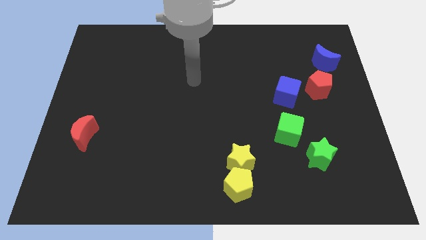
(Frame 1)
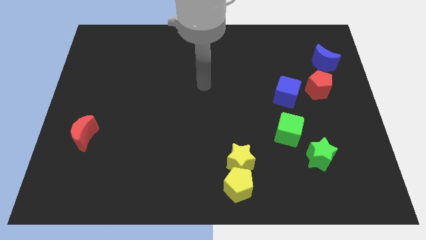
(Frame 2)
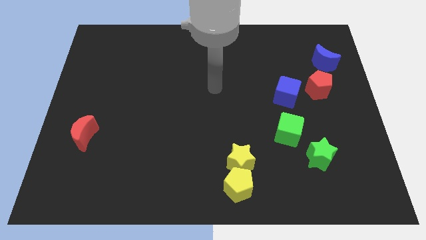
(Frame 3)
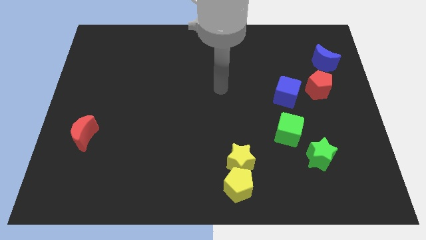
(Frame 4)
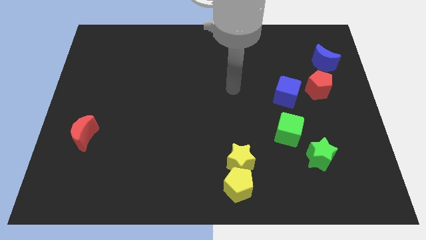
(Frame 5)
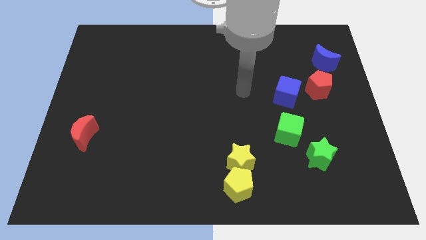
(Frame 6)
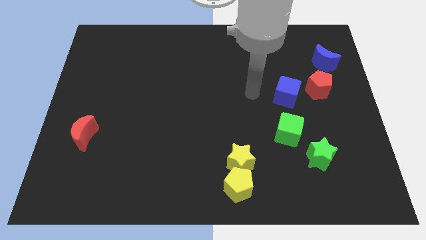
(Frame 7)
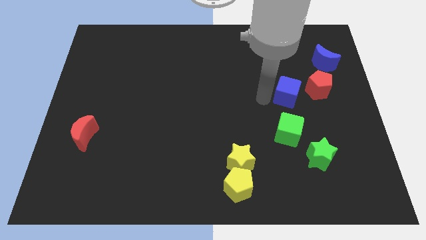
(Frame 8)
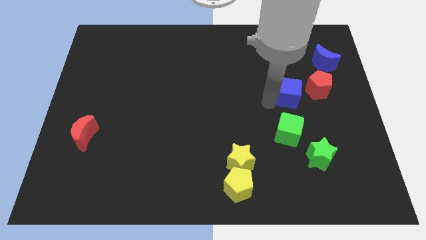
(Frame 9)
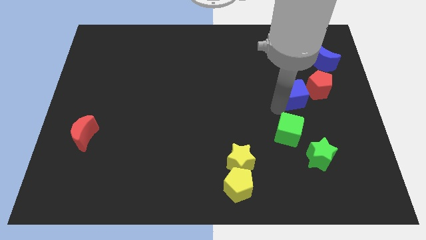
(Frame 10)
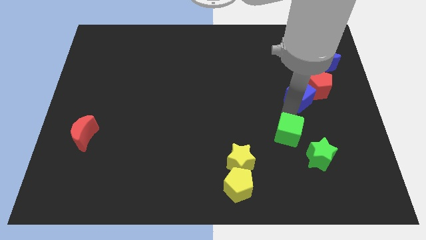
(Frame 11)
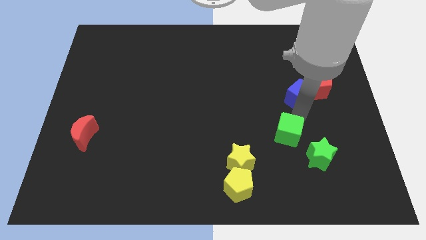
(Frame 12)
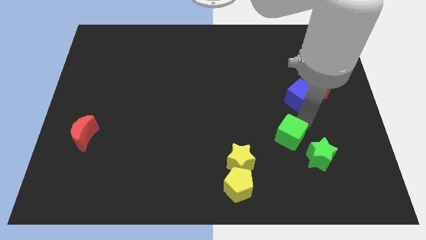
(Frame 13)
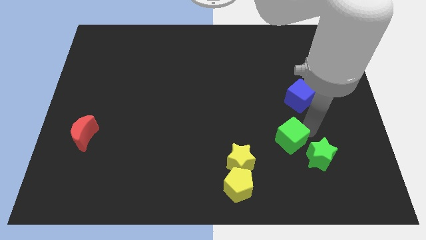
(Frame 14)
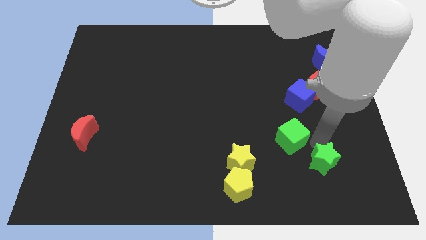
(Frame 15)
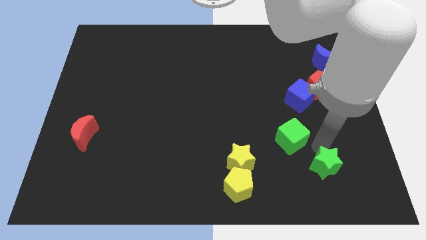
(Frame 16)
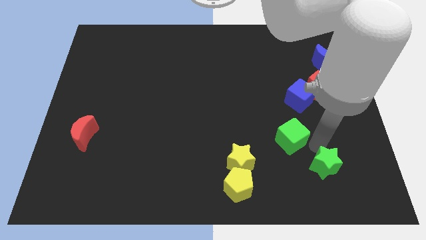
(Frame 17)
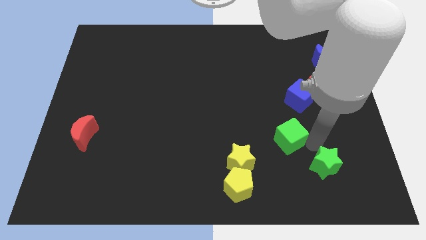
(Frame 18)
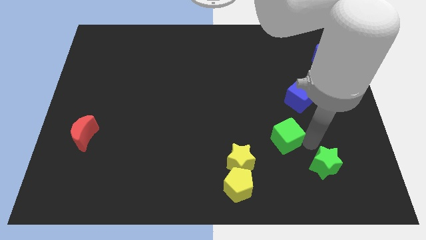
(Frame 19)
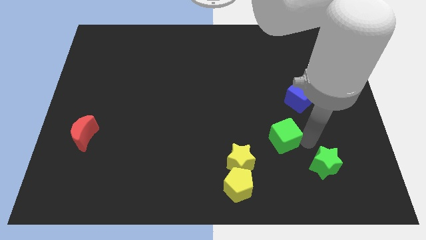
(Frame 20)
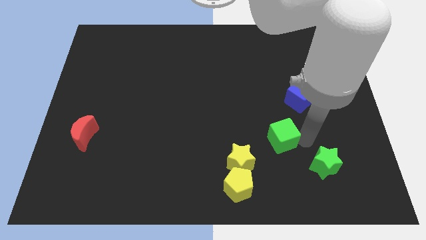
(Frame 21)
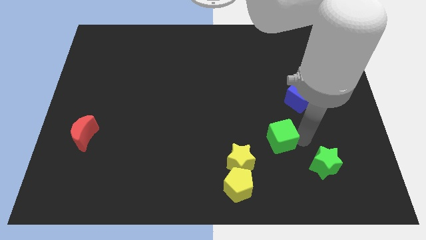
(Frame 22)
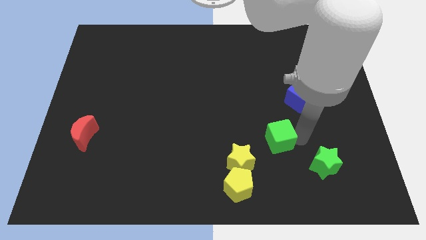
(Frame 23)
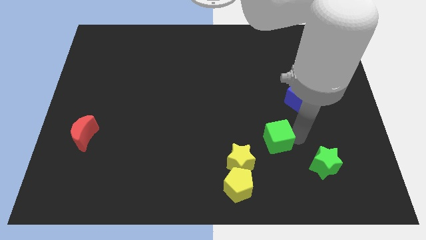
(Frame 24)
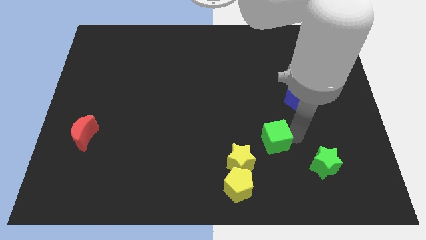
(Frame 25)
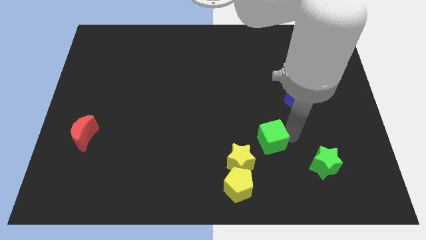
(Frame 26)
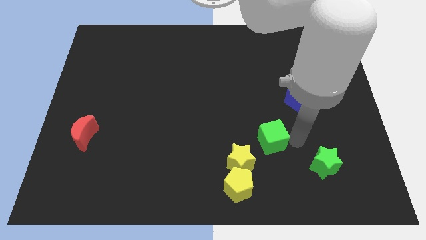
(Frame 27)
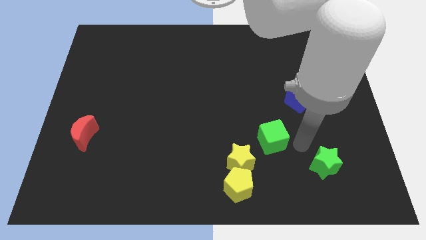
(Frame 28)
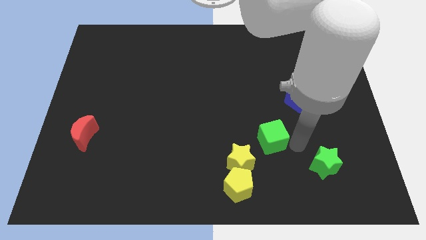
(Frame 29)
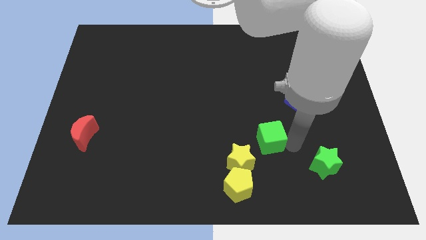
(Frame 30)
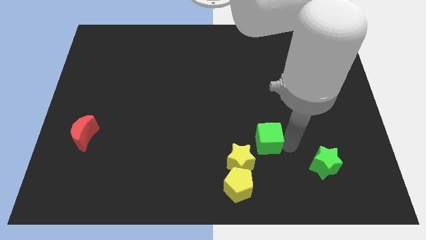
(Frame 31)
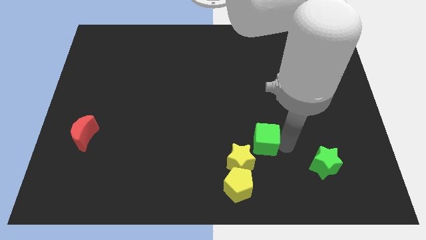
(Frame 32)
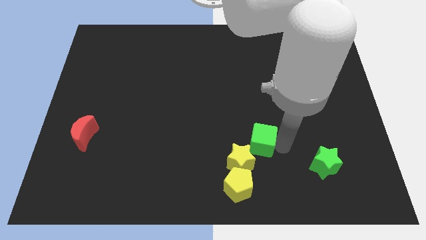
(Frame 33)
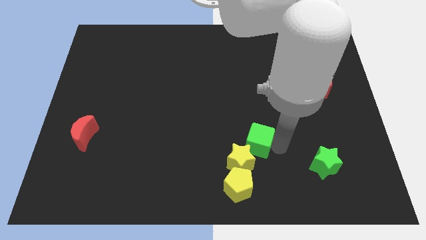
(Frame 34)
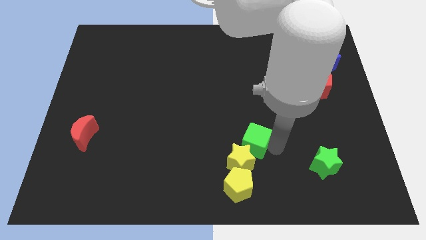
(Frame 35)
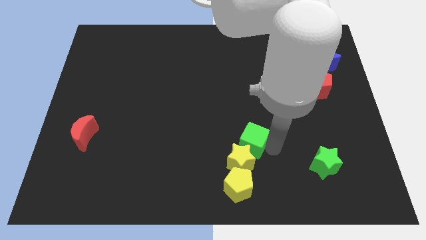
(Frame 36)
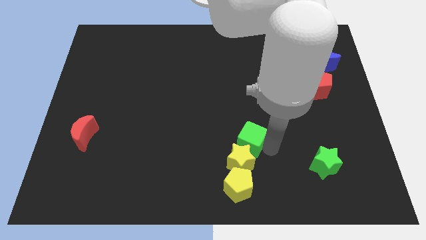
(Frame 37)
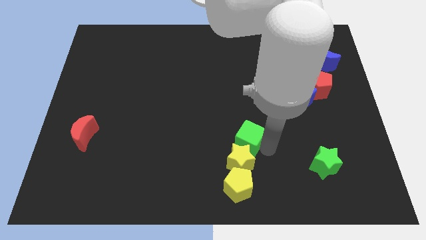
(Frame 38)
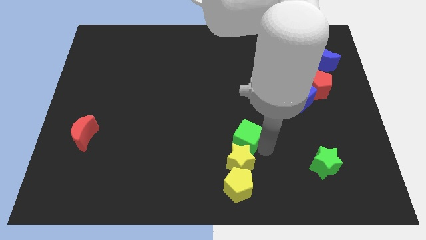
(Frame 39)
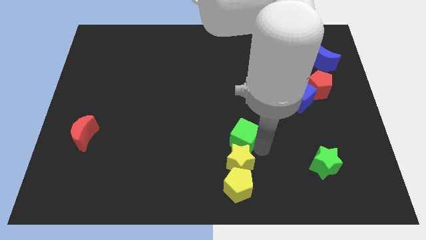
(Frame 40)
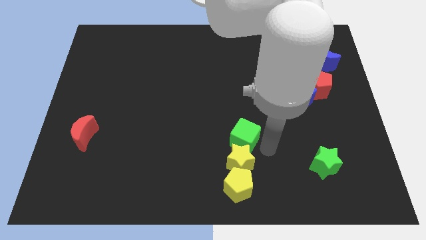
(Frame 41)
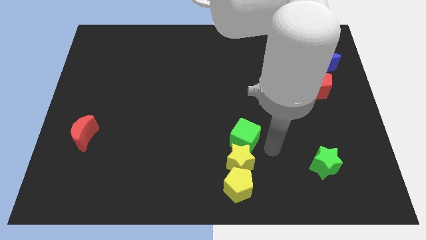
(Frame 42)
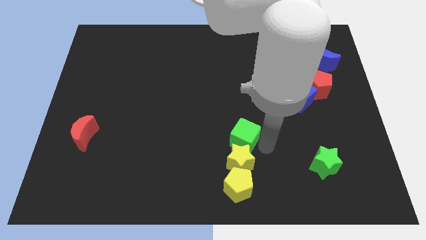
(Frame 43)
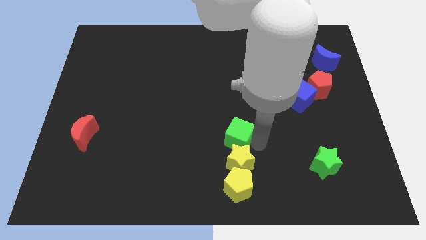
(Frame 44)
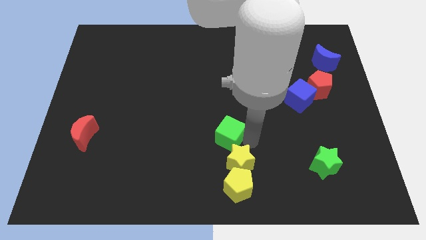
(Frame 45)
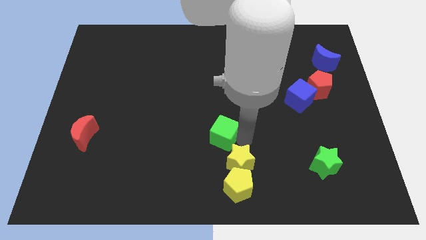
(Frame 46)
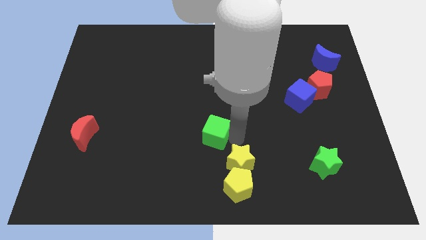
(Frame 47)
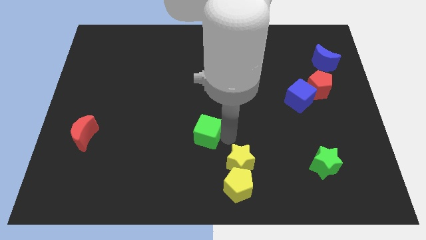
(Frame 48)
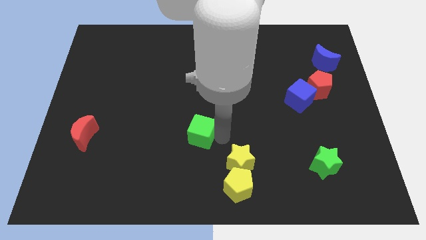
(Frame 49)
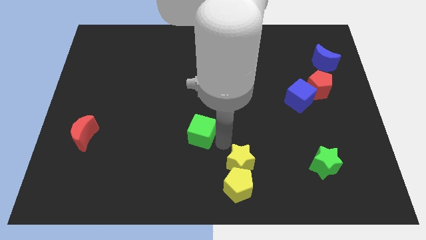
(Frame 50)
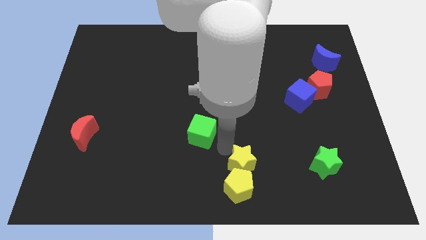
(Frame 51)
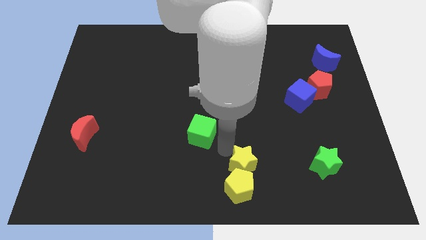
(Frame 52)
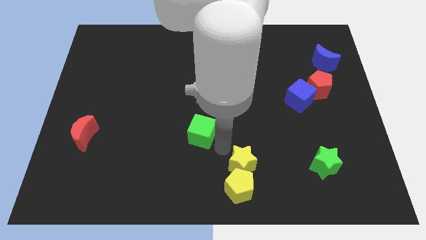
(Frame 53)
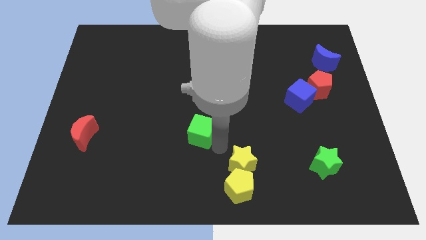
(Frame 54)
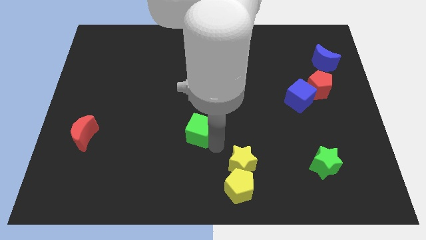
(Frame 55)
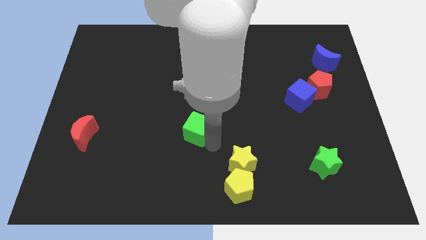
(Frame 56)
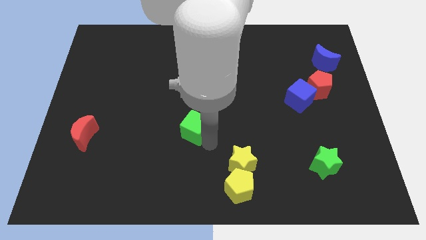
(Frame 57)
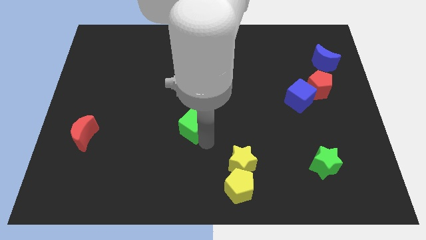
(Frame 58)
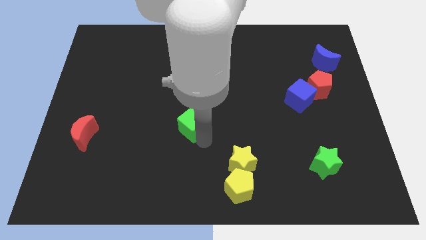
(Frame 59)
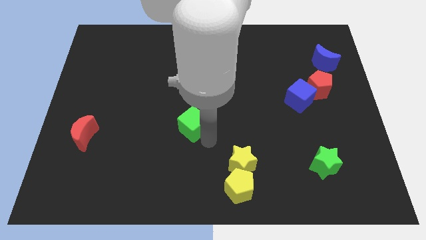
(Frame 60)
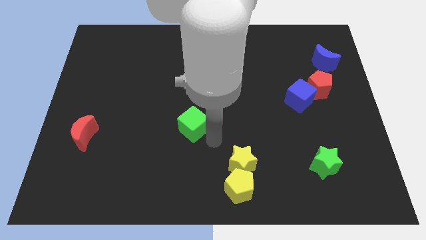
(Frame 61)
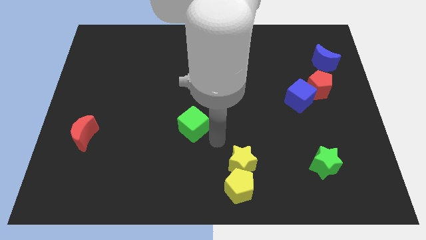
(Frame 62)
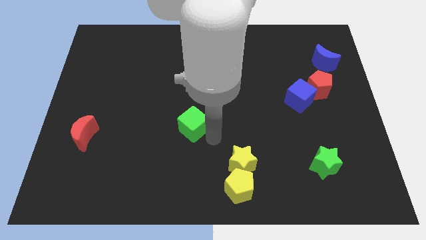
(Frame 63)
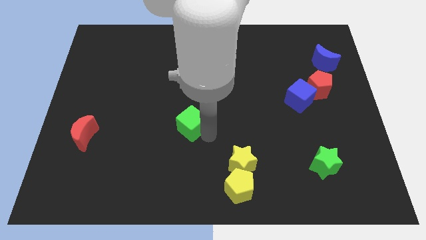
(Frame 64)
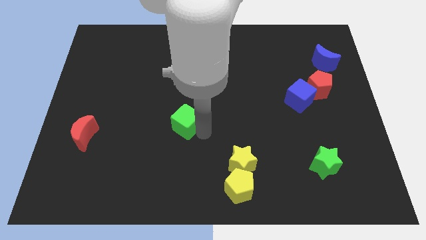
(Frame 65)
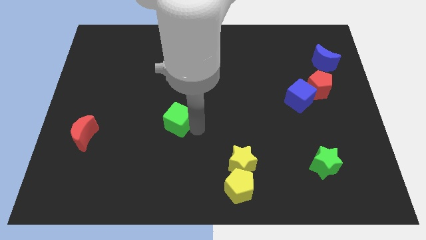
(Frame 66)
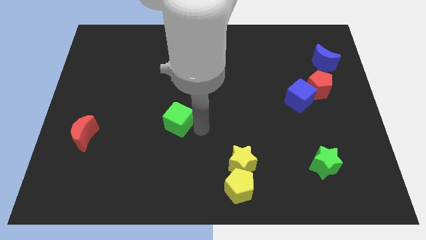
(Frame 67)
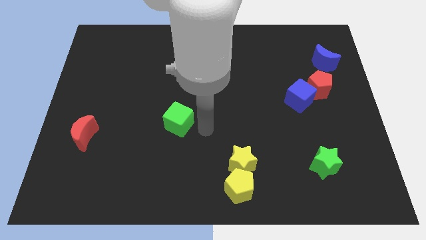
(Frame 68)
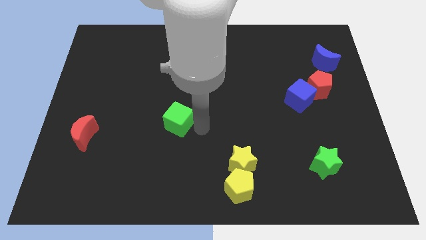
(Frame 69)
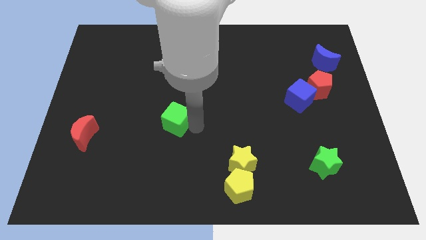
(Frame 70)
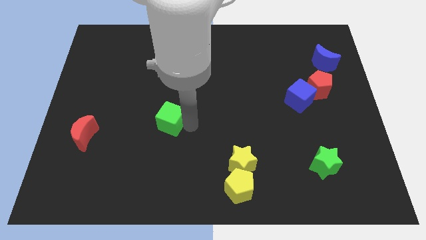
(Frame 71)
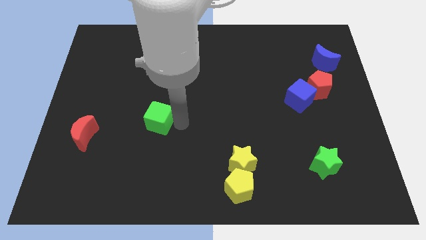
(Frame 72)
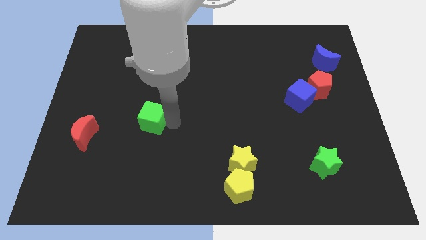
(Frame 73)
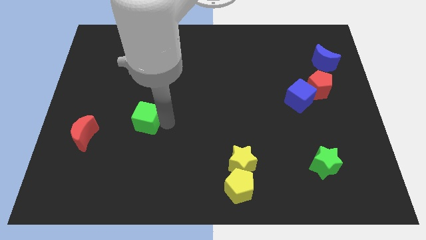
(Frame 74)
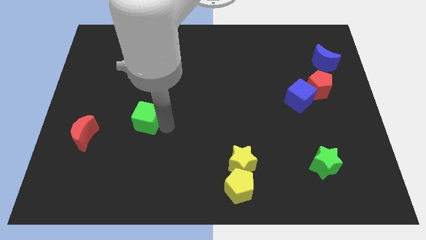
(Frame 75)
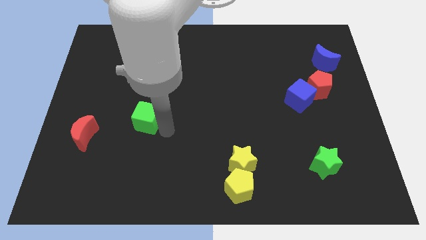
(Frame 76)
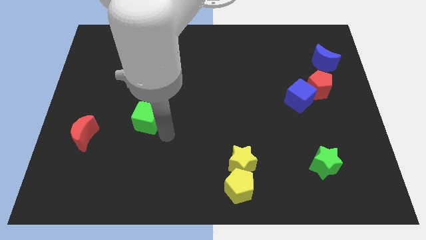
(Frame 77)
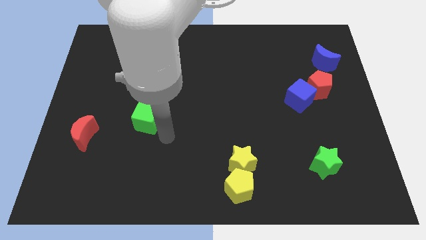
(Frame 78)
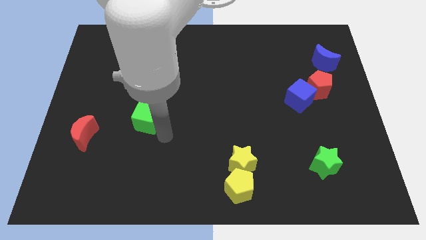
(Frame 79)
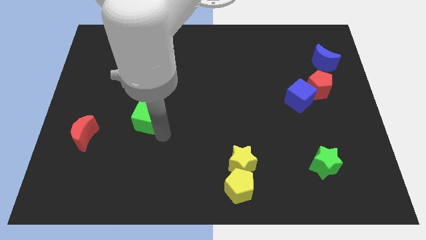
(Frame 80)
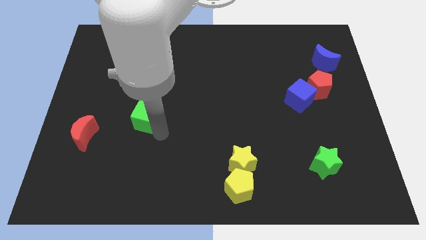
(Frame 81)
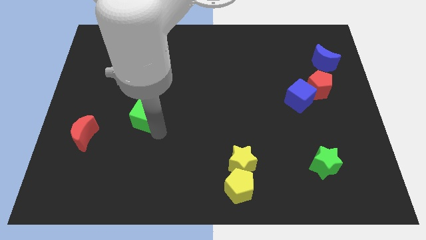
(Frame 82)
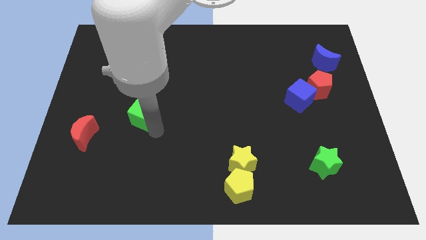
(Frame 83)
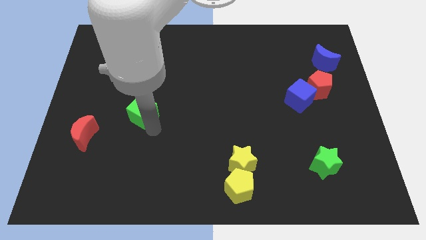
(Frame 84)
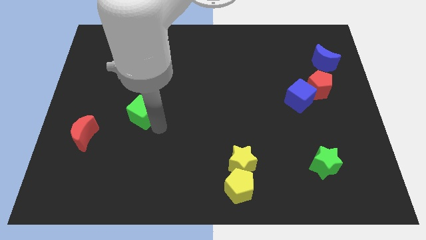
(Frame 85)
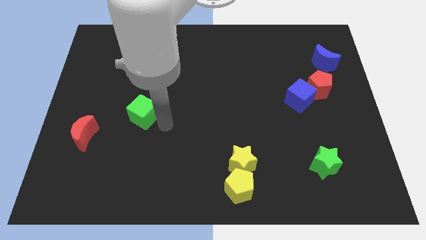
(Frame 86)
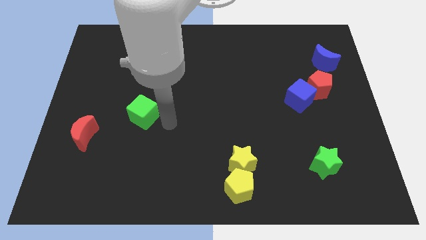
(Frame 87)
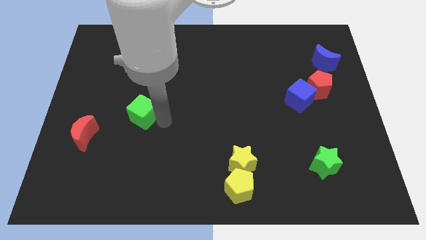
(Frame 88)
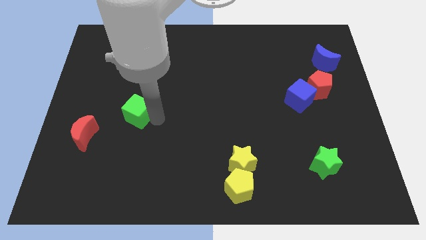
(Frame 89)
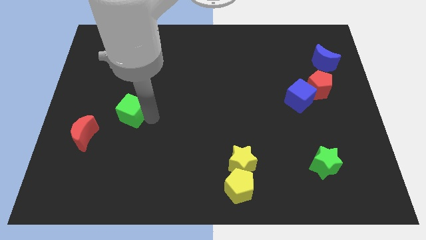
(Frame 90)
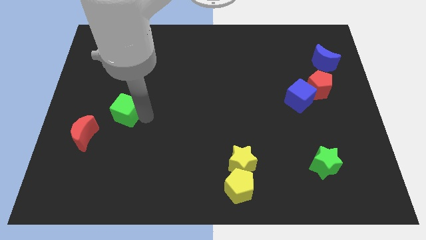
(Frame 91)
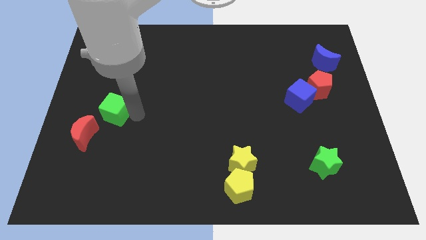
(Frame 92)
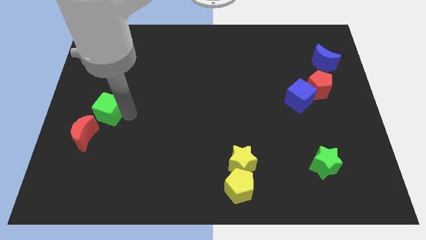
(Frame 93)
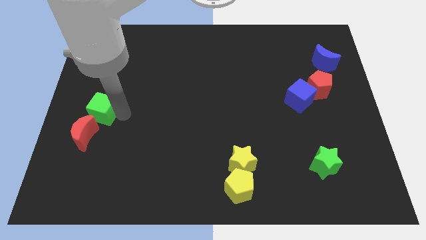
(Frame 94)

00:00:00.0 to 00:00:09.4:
move the green cube to the left side
